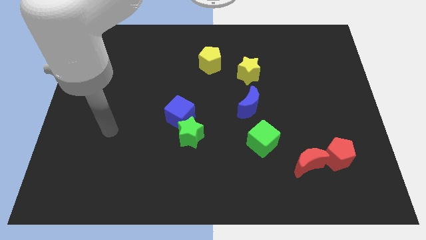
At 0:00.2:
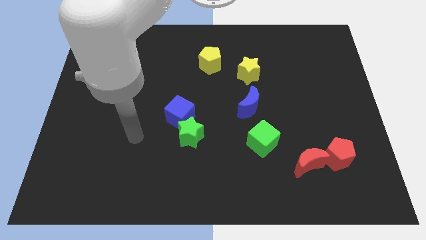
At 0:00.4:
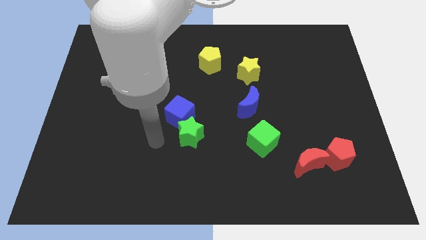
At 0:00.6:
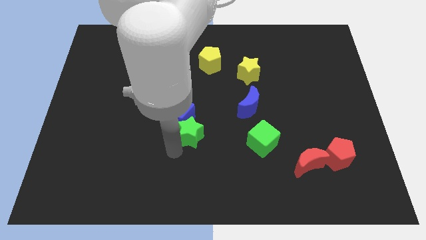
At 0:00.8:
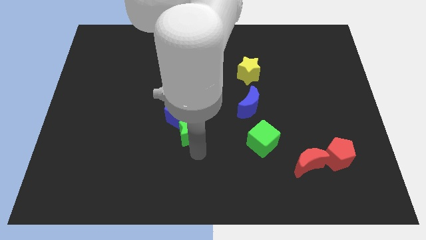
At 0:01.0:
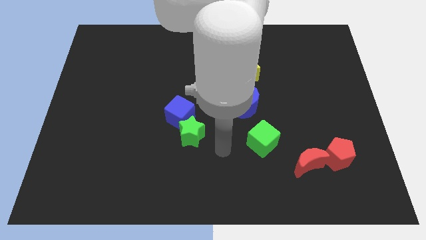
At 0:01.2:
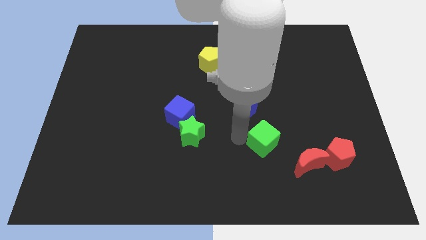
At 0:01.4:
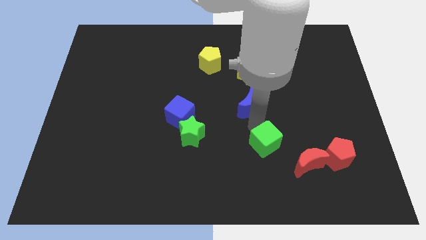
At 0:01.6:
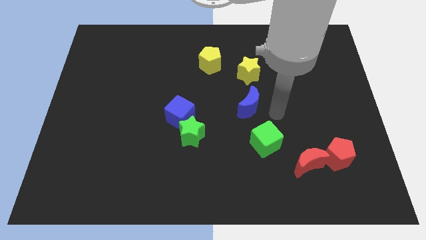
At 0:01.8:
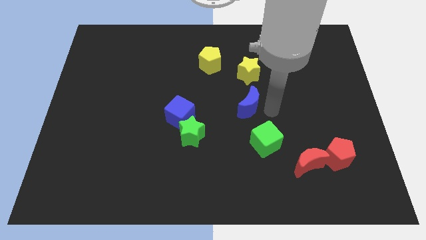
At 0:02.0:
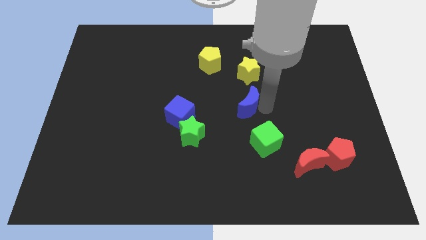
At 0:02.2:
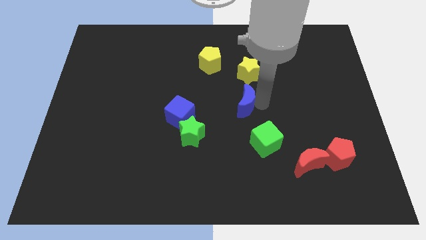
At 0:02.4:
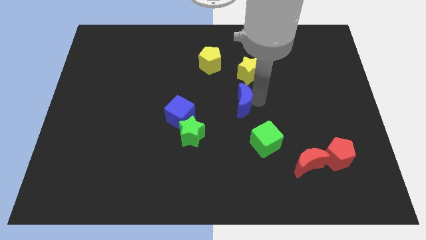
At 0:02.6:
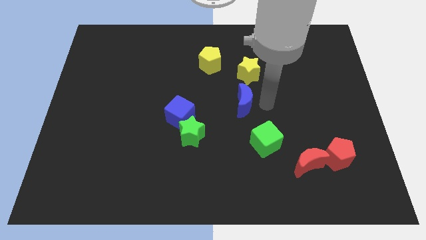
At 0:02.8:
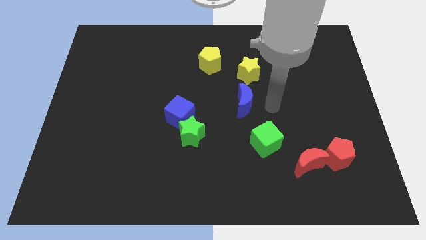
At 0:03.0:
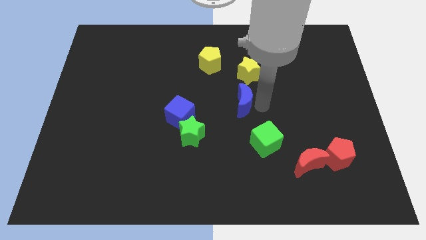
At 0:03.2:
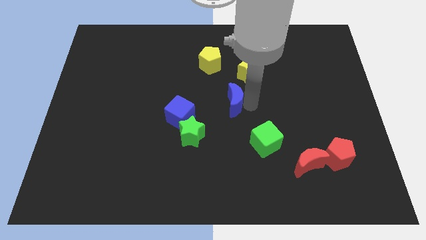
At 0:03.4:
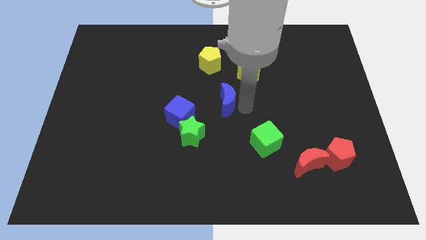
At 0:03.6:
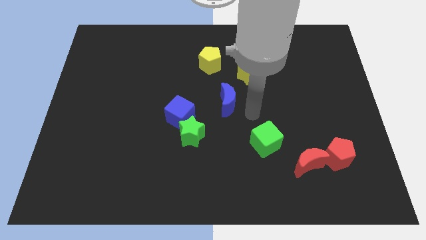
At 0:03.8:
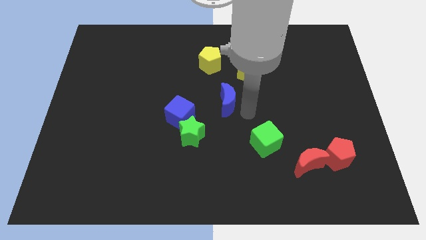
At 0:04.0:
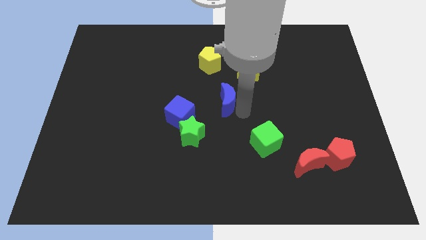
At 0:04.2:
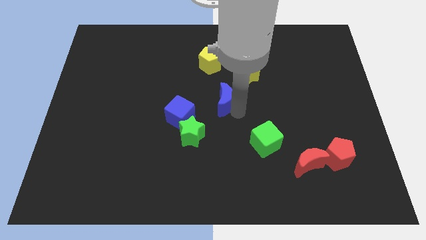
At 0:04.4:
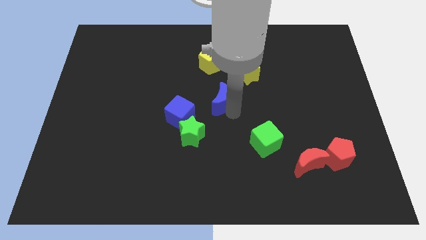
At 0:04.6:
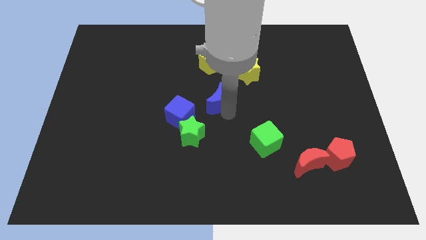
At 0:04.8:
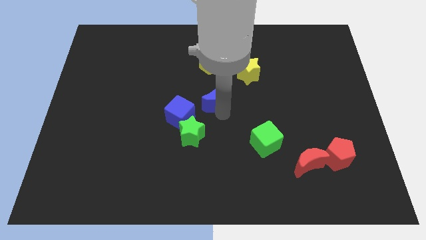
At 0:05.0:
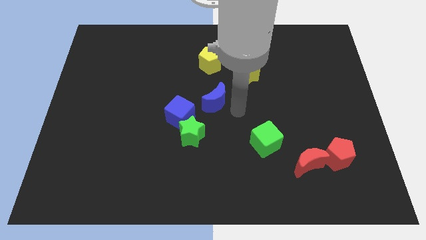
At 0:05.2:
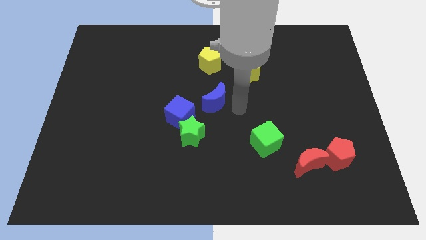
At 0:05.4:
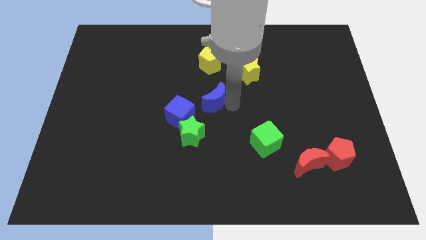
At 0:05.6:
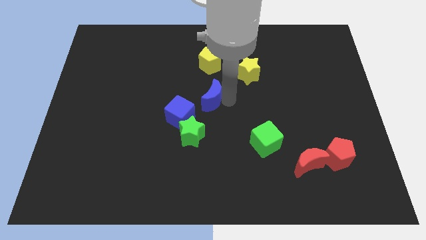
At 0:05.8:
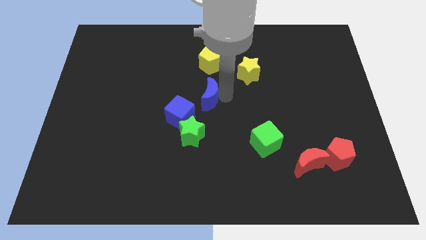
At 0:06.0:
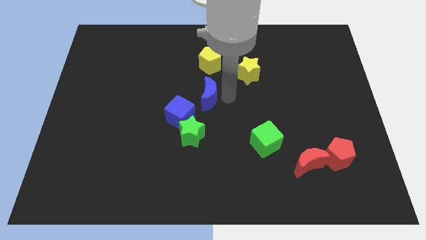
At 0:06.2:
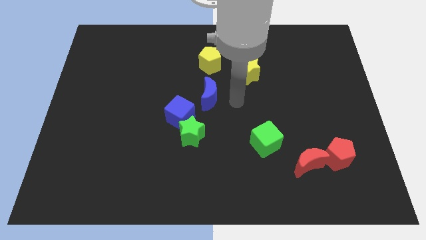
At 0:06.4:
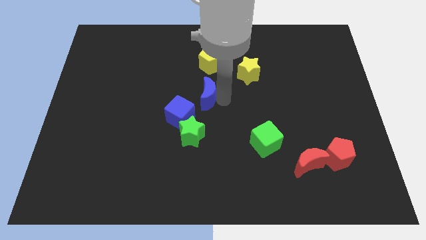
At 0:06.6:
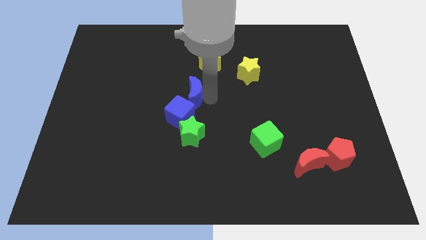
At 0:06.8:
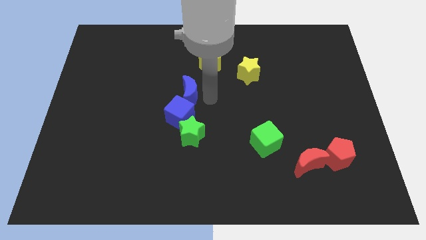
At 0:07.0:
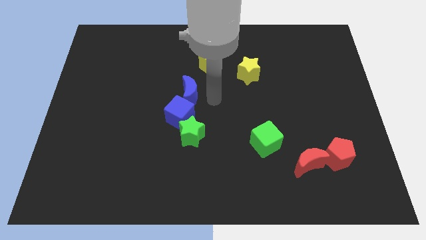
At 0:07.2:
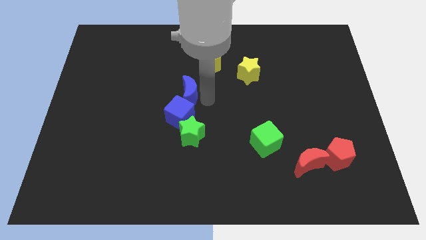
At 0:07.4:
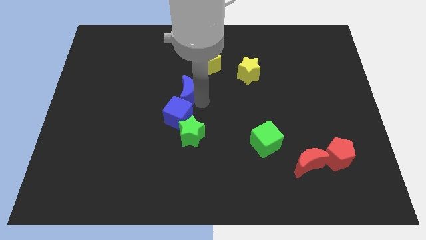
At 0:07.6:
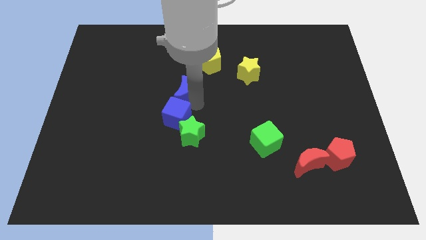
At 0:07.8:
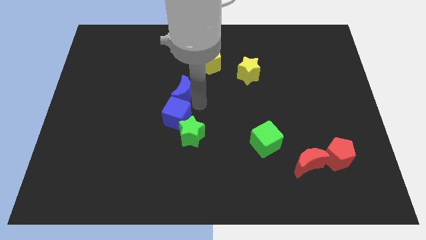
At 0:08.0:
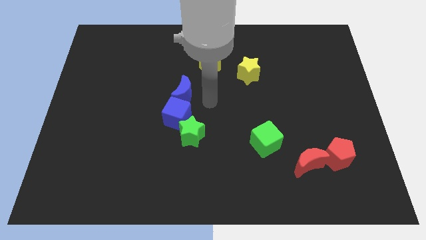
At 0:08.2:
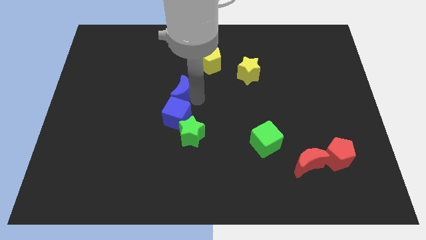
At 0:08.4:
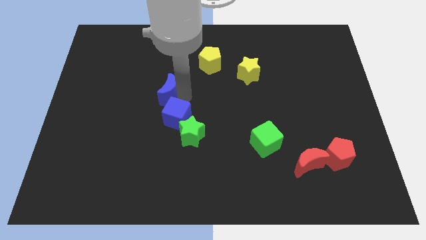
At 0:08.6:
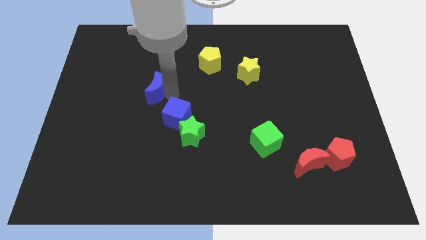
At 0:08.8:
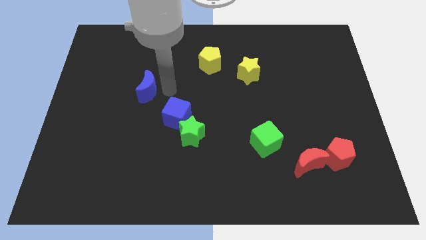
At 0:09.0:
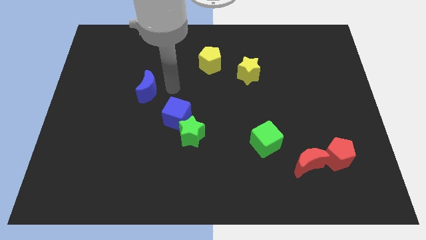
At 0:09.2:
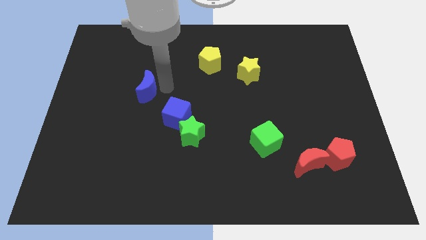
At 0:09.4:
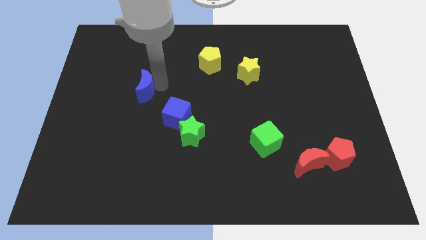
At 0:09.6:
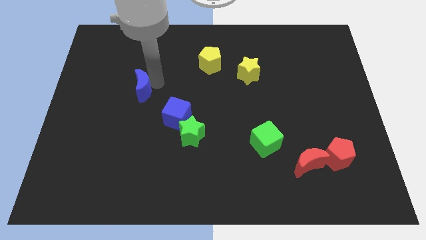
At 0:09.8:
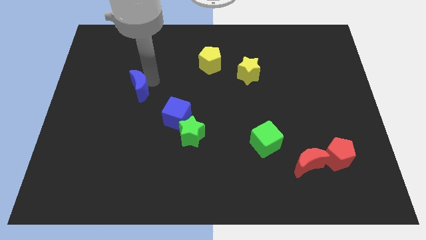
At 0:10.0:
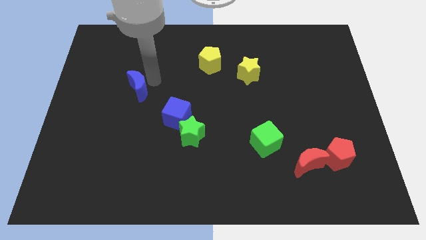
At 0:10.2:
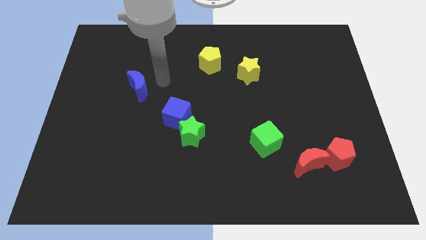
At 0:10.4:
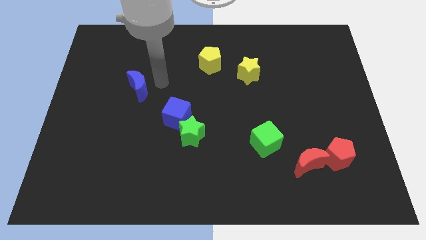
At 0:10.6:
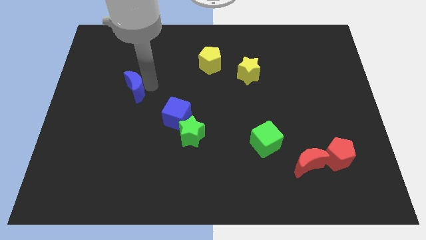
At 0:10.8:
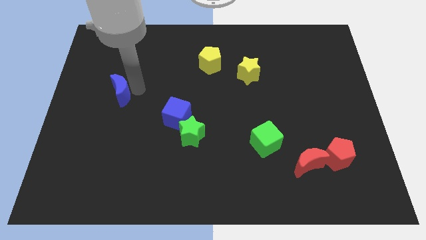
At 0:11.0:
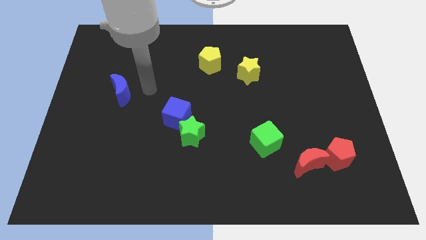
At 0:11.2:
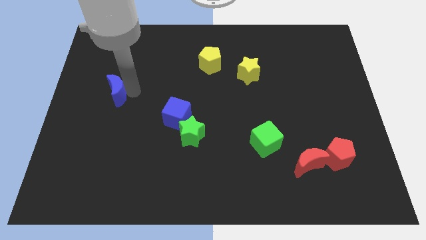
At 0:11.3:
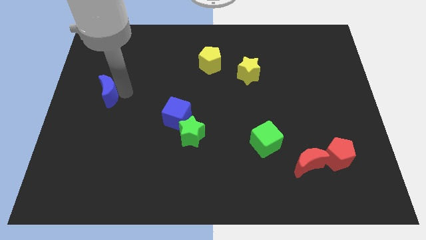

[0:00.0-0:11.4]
move the blue moon to the center left
